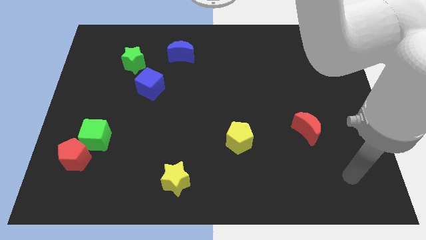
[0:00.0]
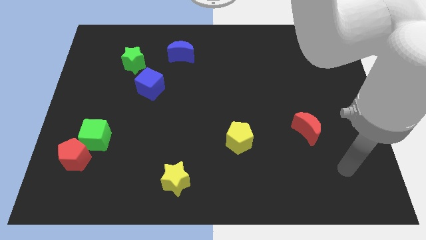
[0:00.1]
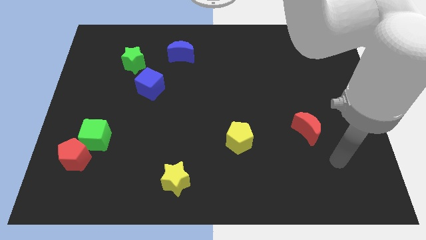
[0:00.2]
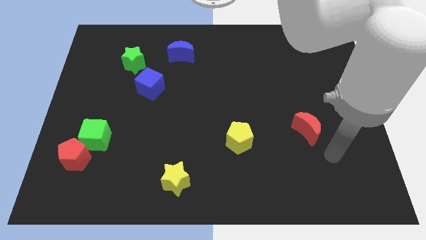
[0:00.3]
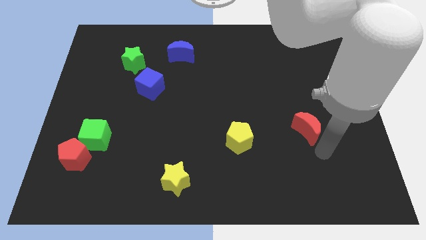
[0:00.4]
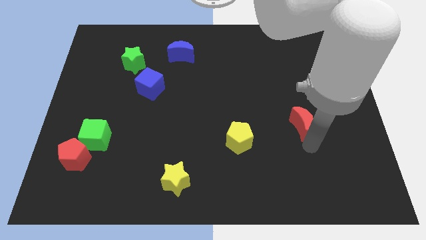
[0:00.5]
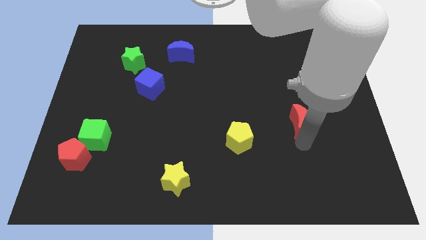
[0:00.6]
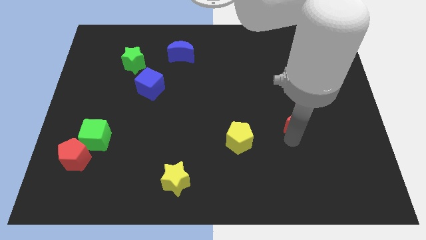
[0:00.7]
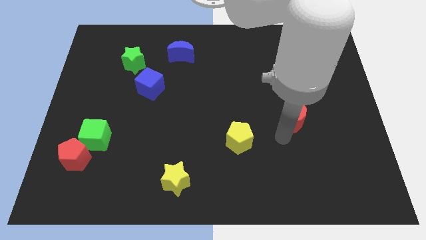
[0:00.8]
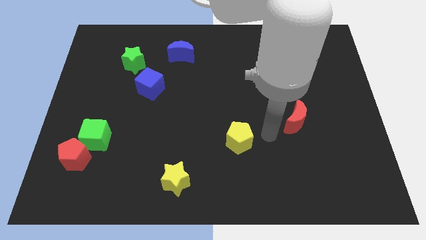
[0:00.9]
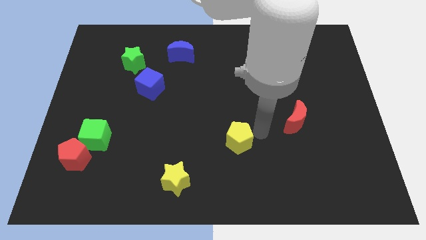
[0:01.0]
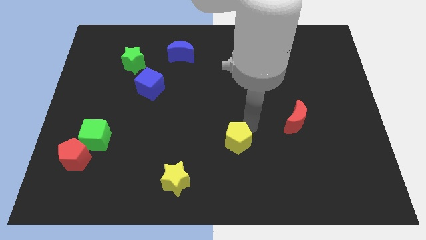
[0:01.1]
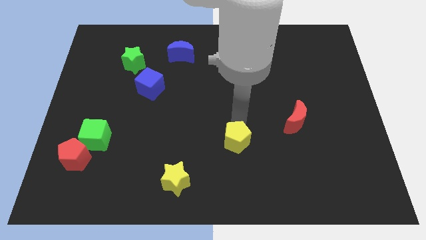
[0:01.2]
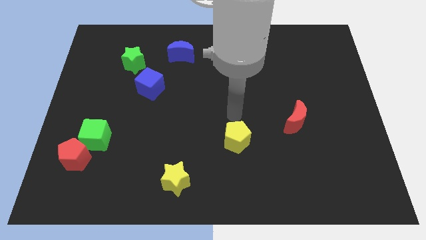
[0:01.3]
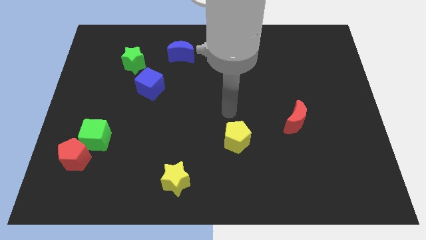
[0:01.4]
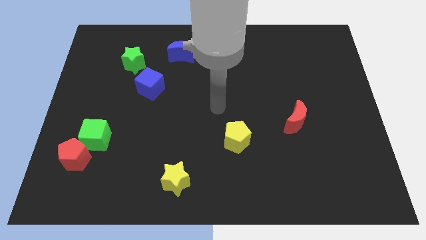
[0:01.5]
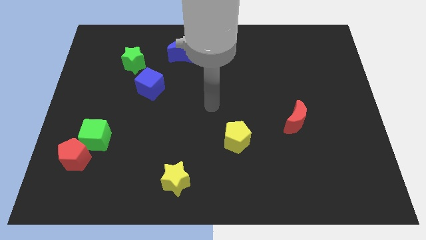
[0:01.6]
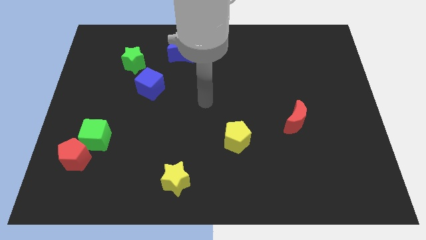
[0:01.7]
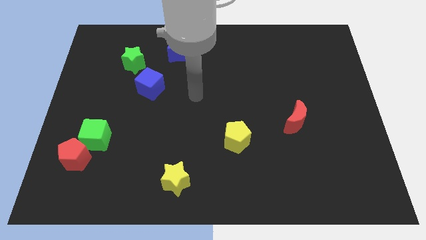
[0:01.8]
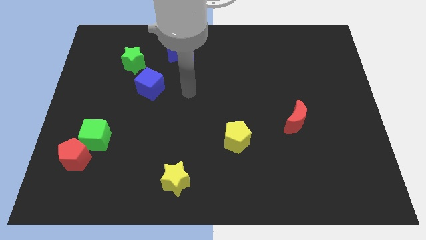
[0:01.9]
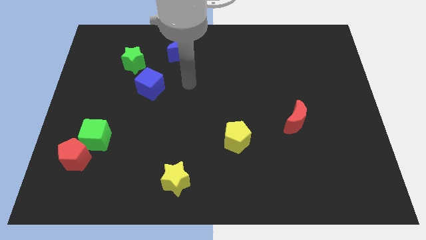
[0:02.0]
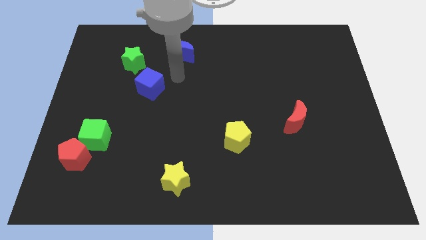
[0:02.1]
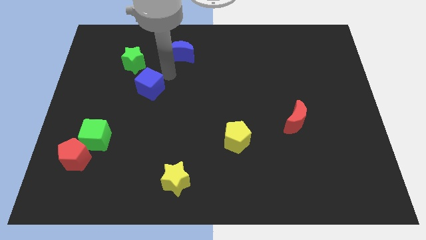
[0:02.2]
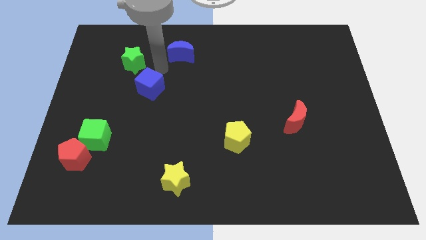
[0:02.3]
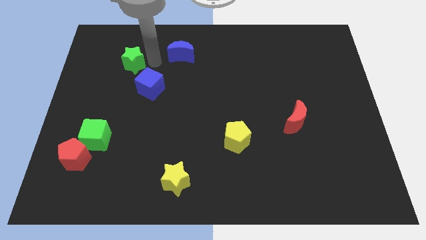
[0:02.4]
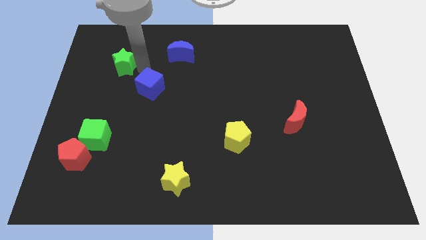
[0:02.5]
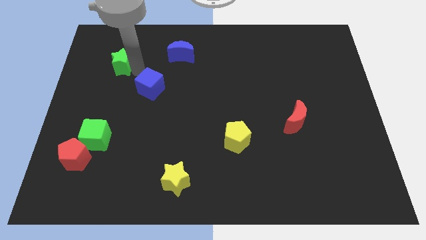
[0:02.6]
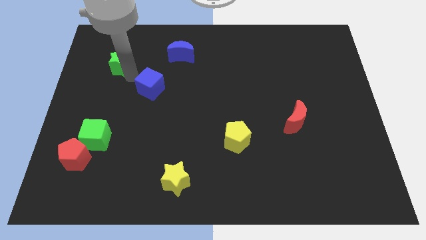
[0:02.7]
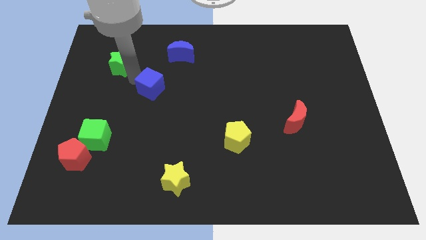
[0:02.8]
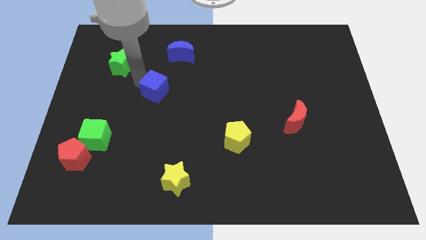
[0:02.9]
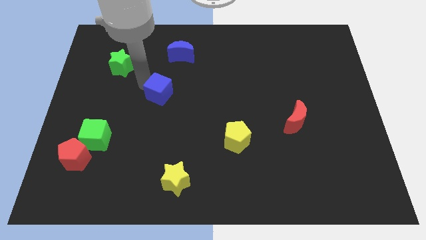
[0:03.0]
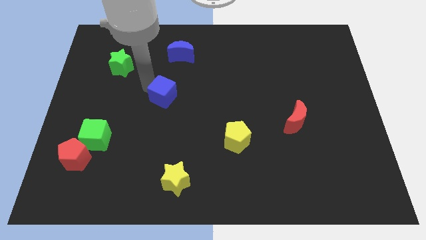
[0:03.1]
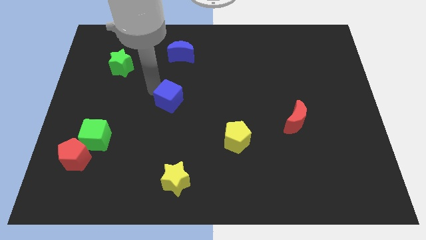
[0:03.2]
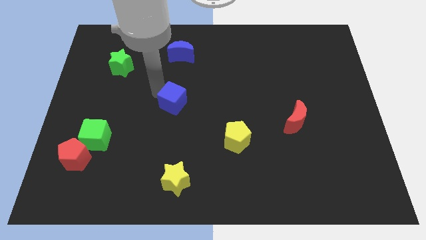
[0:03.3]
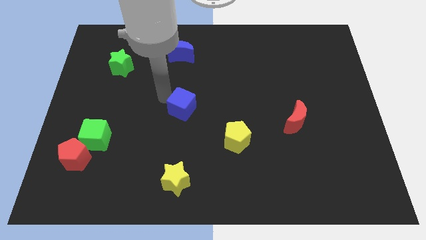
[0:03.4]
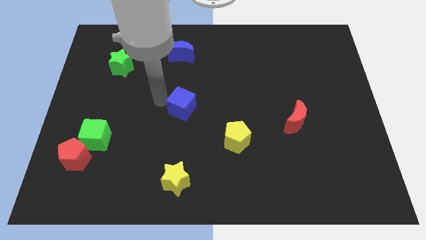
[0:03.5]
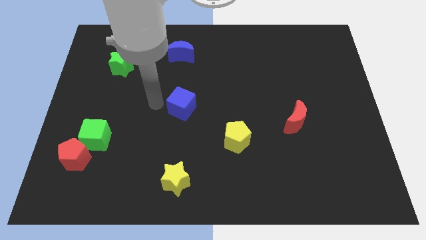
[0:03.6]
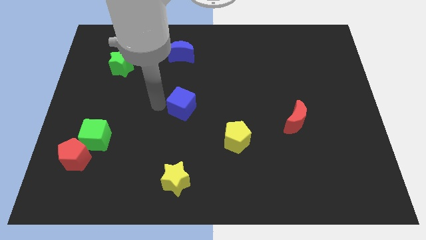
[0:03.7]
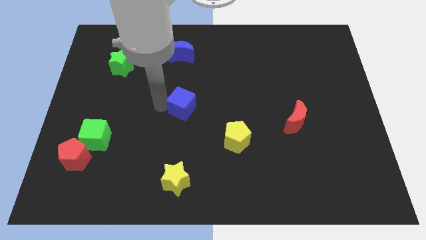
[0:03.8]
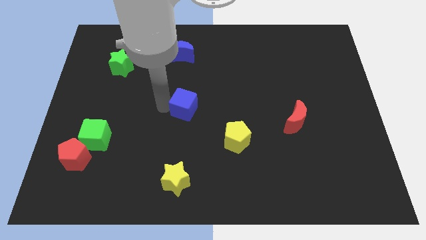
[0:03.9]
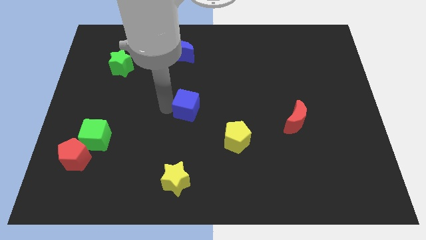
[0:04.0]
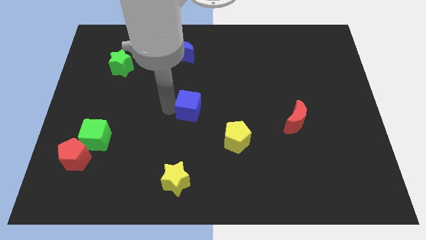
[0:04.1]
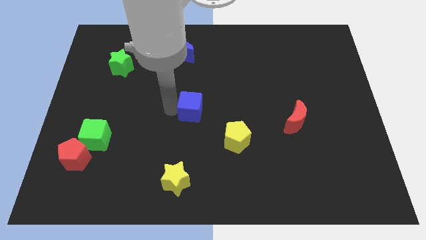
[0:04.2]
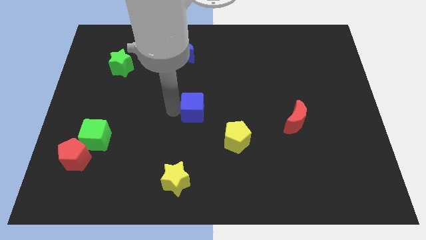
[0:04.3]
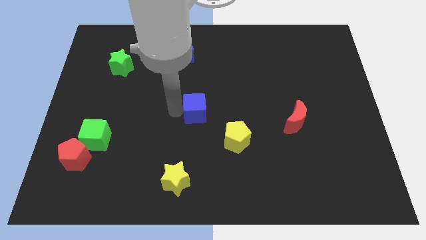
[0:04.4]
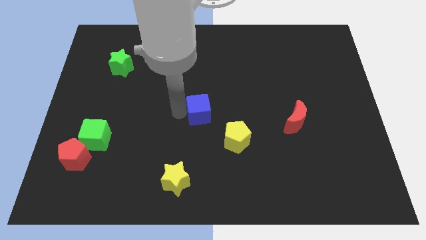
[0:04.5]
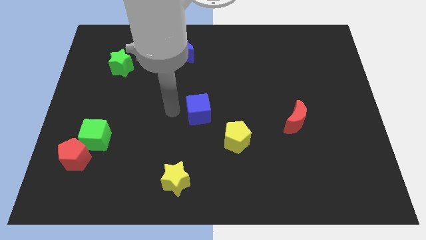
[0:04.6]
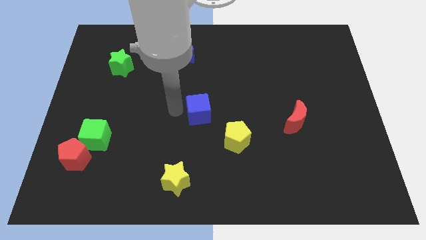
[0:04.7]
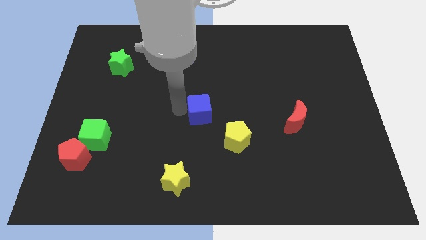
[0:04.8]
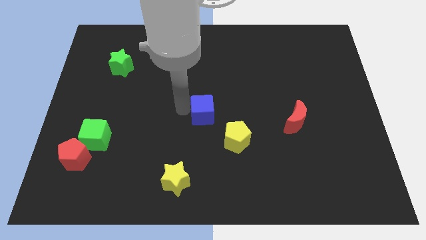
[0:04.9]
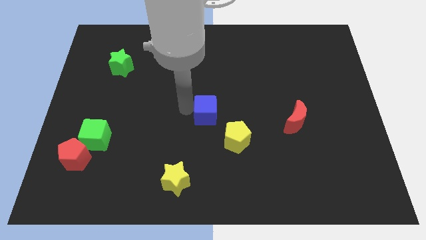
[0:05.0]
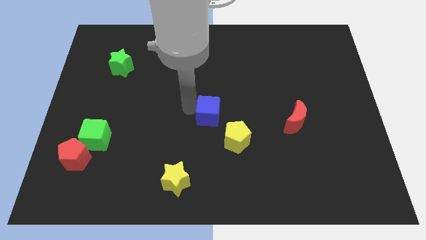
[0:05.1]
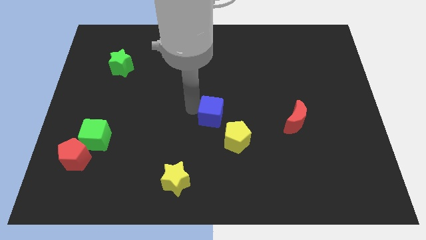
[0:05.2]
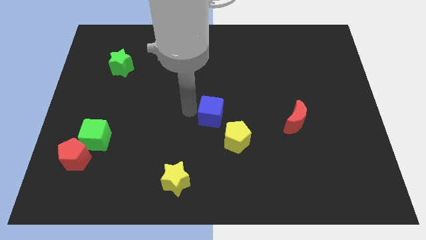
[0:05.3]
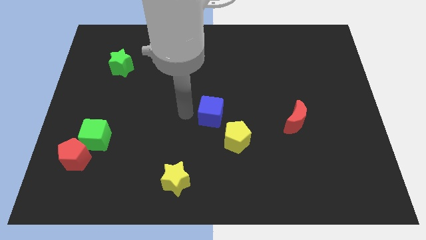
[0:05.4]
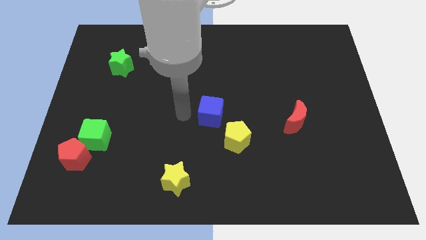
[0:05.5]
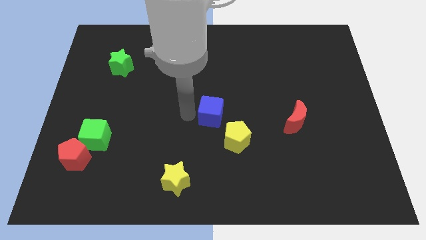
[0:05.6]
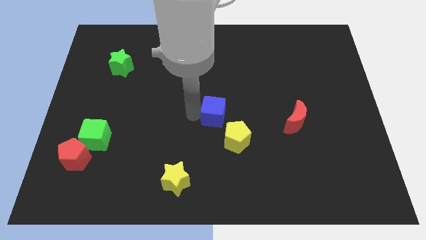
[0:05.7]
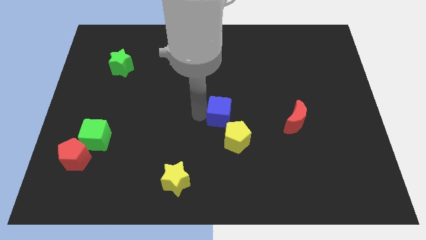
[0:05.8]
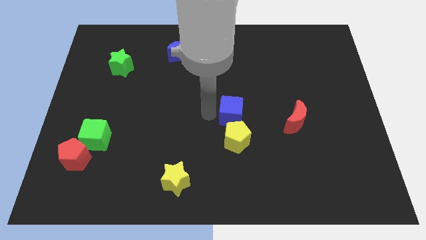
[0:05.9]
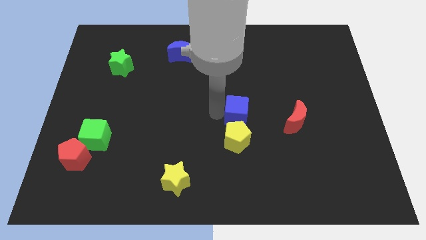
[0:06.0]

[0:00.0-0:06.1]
push the blue cube to the top right side of the yellow pentagon
